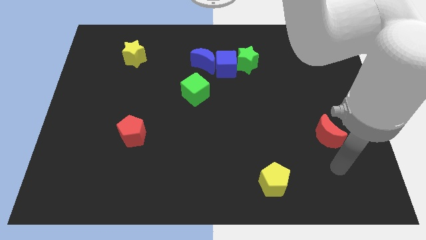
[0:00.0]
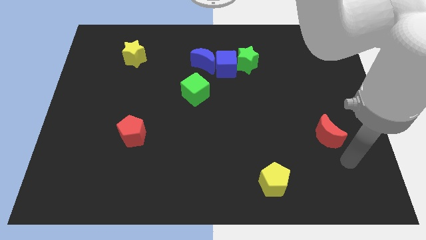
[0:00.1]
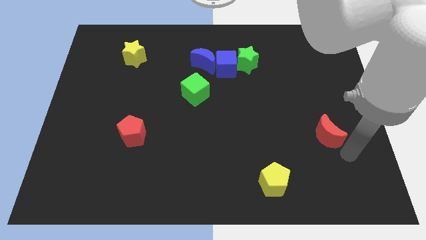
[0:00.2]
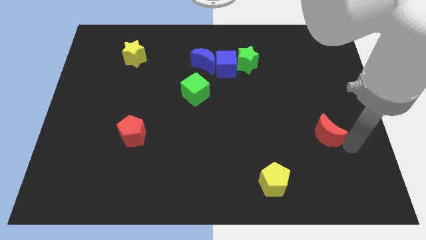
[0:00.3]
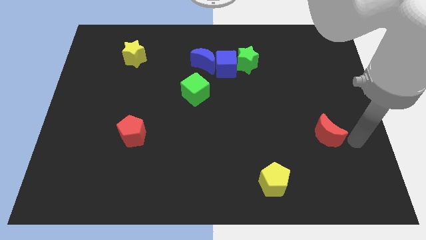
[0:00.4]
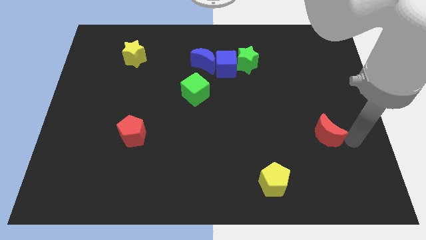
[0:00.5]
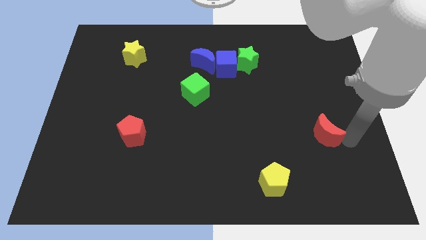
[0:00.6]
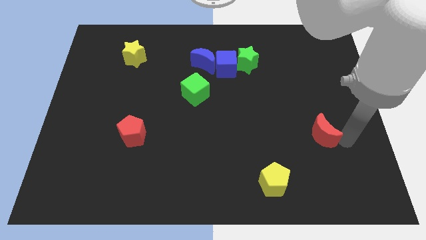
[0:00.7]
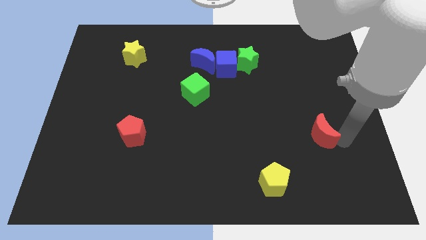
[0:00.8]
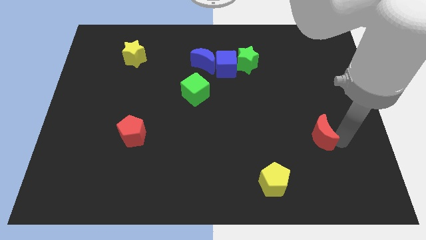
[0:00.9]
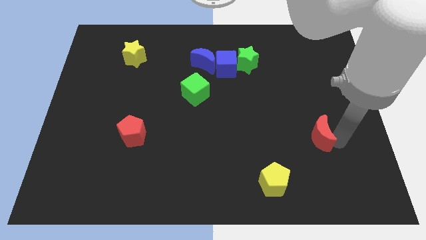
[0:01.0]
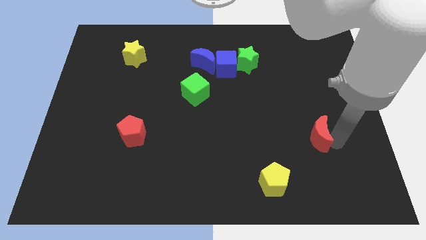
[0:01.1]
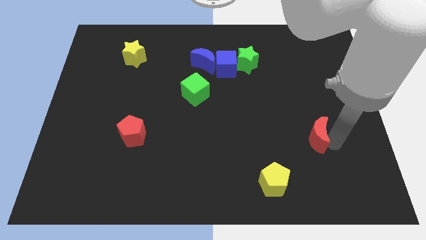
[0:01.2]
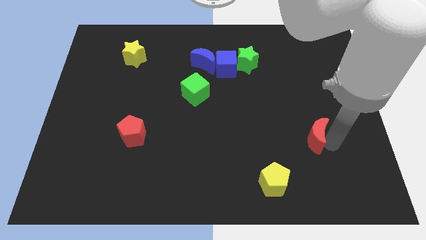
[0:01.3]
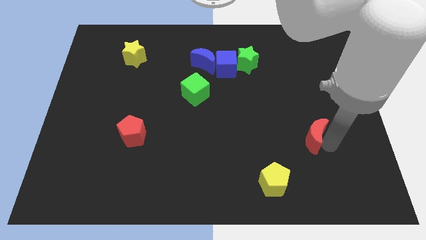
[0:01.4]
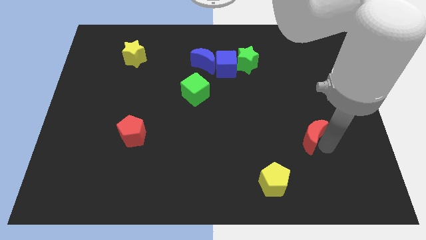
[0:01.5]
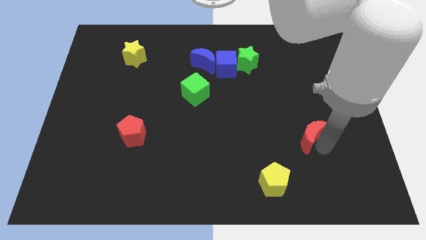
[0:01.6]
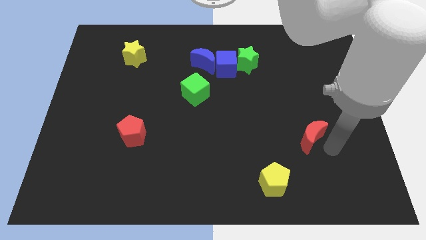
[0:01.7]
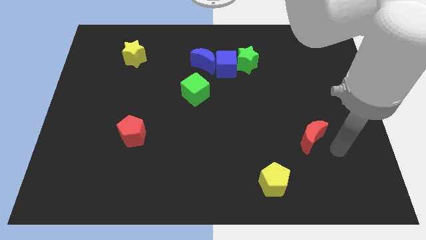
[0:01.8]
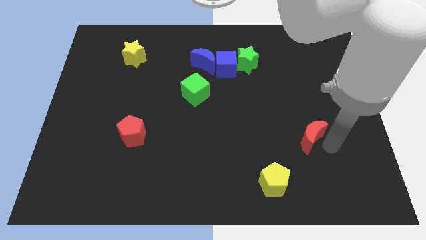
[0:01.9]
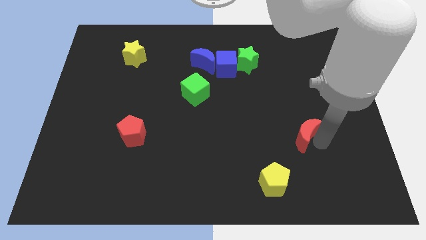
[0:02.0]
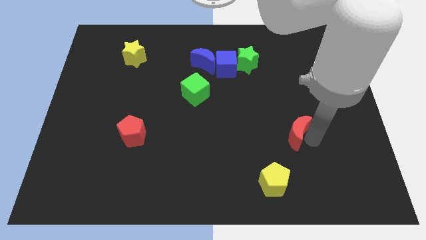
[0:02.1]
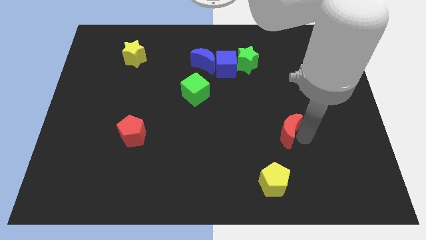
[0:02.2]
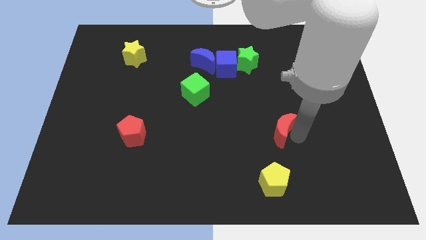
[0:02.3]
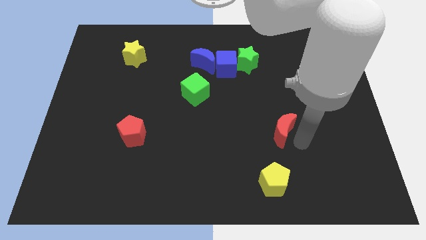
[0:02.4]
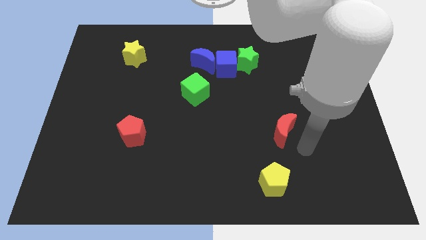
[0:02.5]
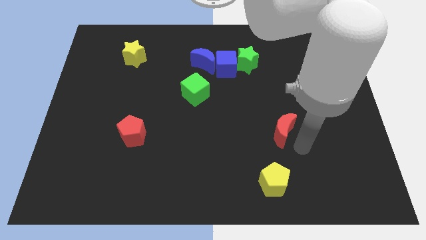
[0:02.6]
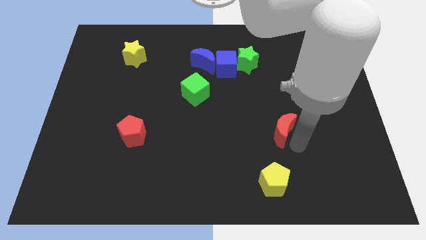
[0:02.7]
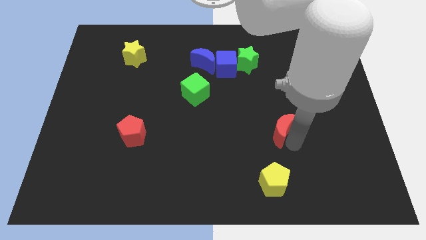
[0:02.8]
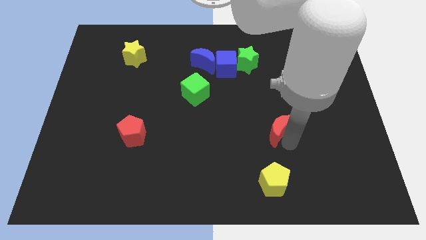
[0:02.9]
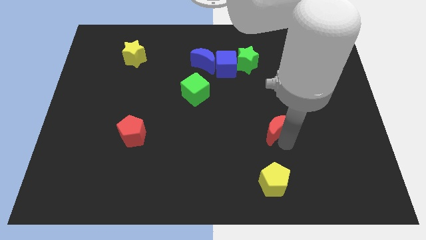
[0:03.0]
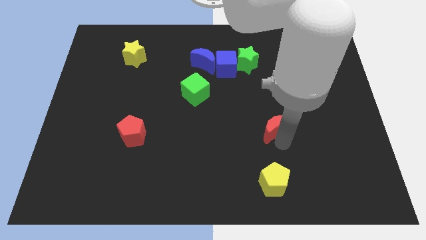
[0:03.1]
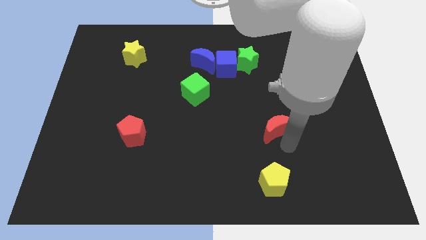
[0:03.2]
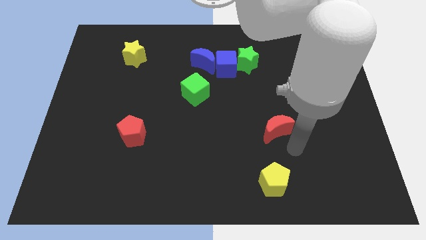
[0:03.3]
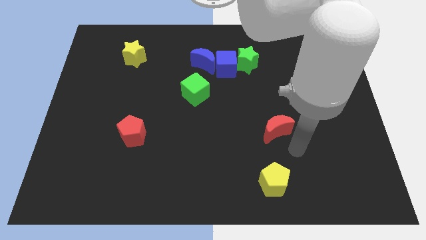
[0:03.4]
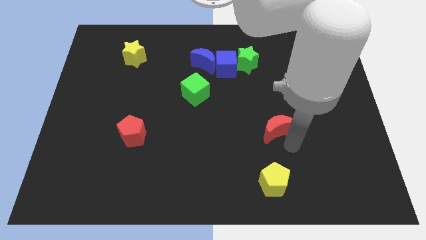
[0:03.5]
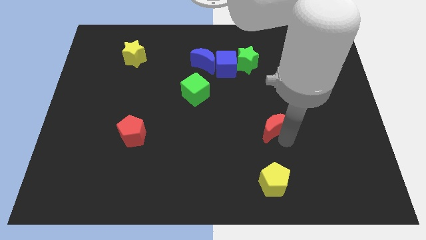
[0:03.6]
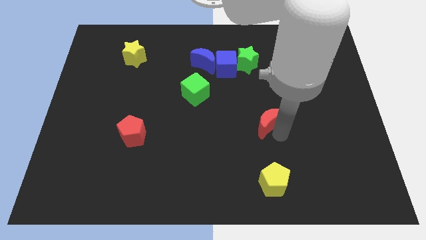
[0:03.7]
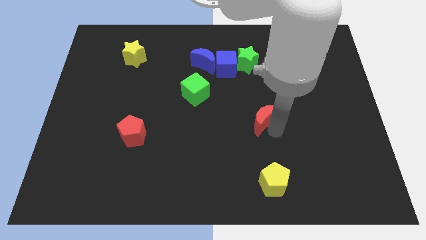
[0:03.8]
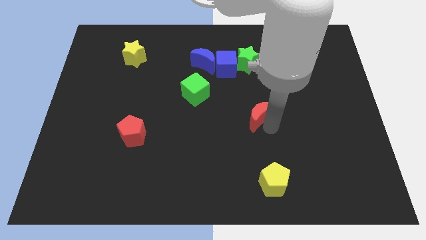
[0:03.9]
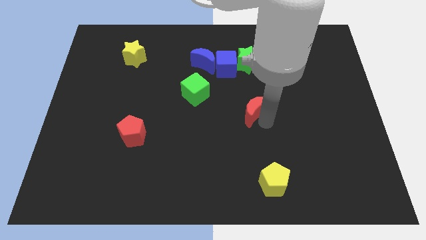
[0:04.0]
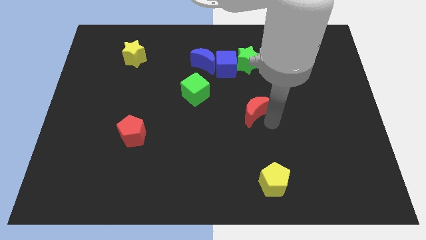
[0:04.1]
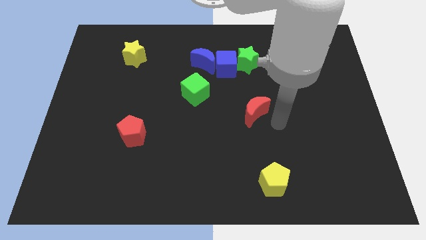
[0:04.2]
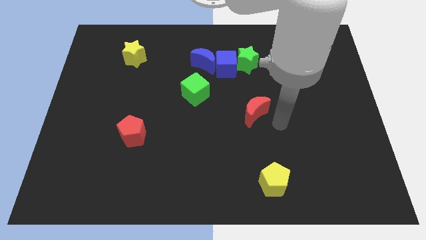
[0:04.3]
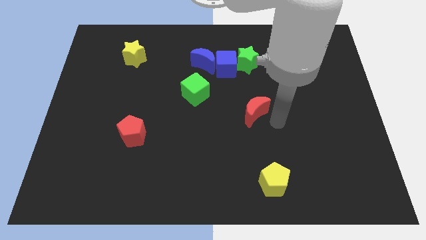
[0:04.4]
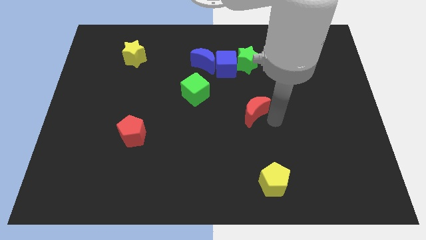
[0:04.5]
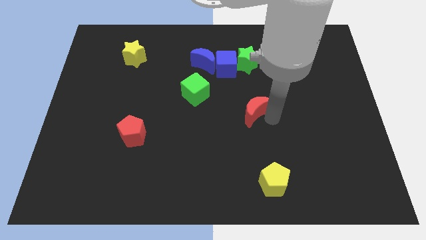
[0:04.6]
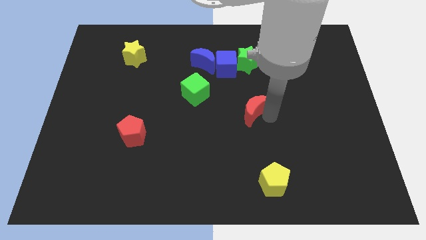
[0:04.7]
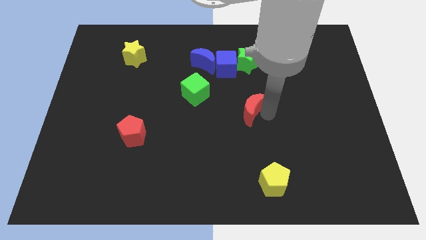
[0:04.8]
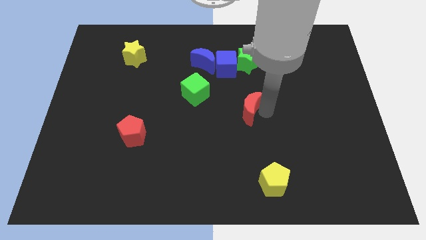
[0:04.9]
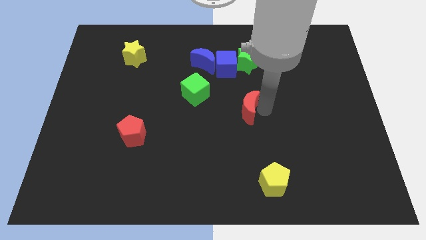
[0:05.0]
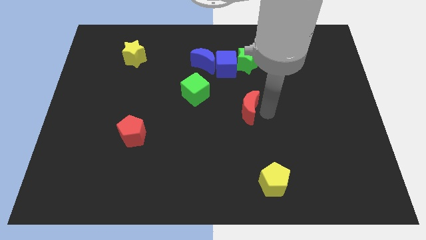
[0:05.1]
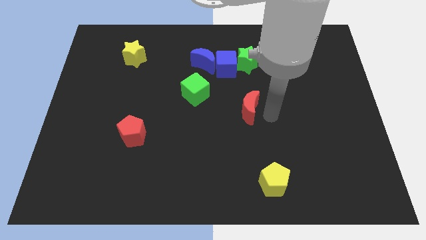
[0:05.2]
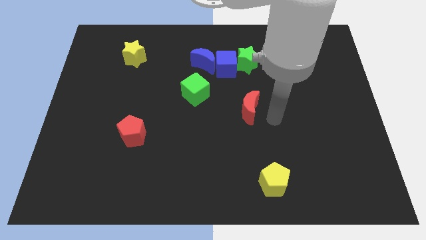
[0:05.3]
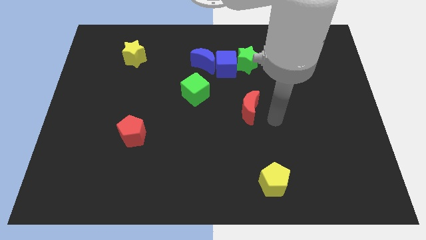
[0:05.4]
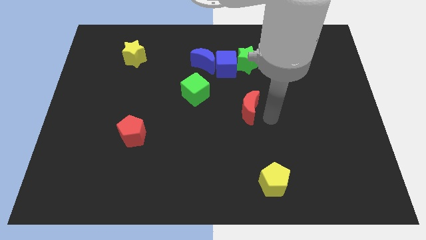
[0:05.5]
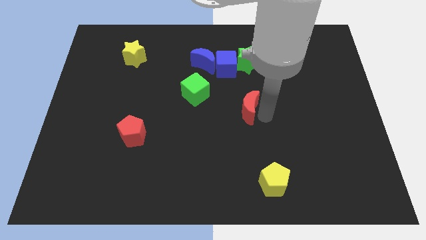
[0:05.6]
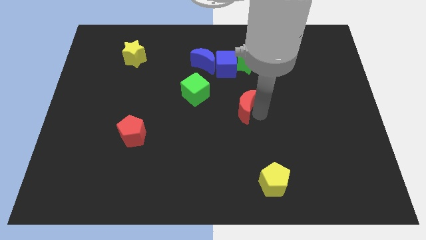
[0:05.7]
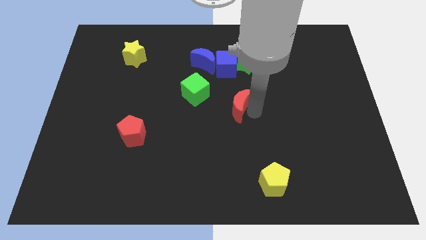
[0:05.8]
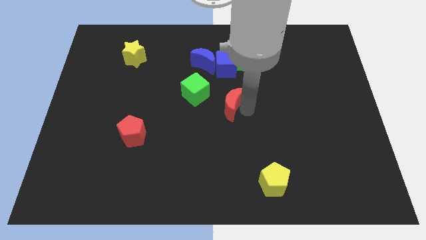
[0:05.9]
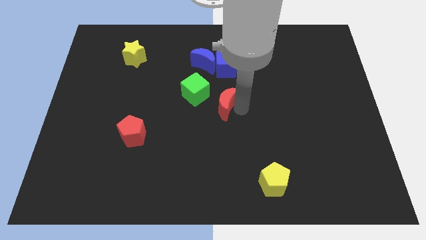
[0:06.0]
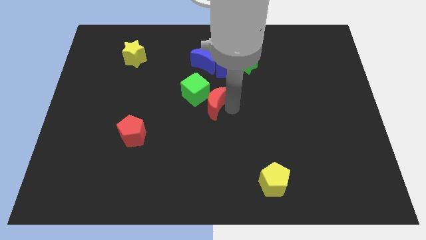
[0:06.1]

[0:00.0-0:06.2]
push the red moon close to the green cube

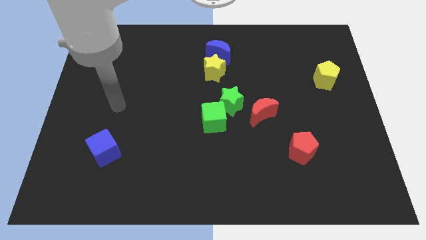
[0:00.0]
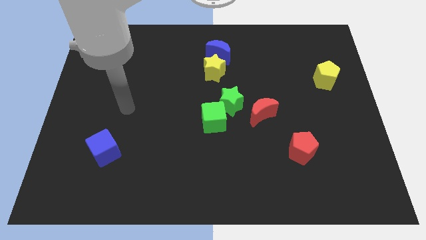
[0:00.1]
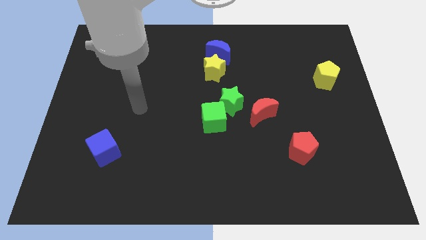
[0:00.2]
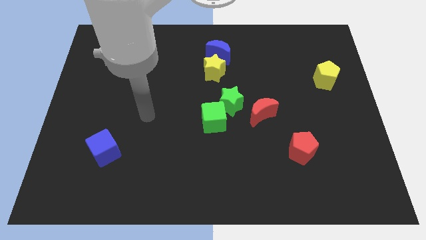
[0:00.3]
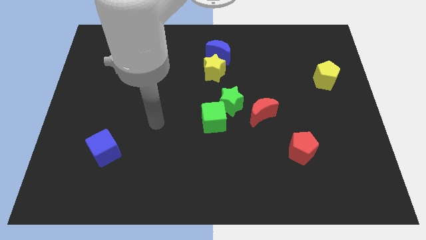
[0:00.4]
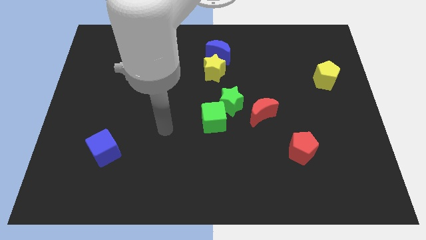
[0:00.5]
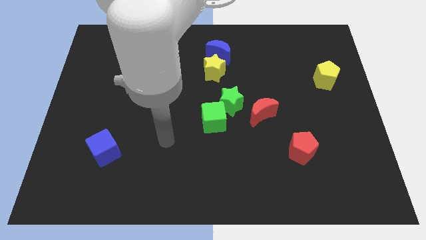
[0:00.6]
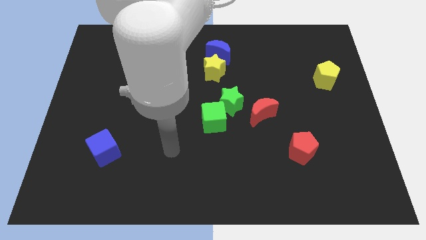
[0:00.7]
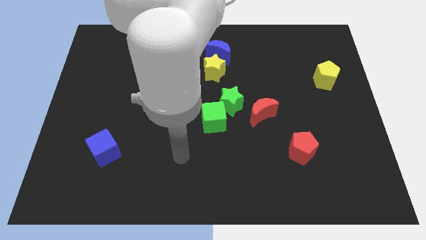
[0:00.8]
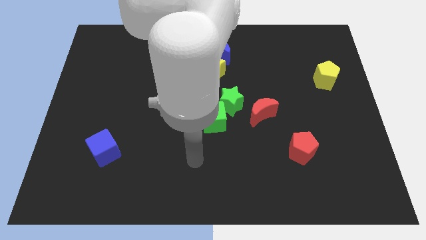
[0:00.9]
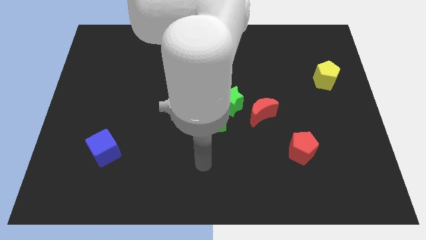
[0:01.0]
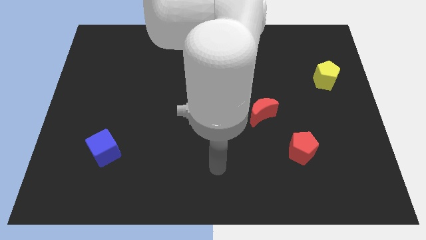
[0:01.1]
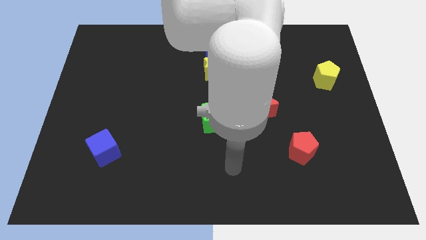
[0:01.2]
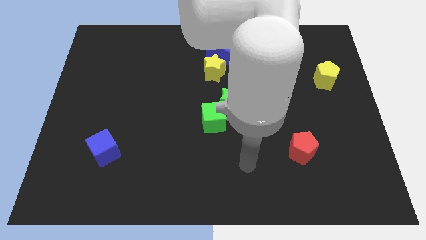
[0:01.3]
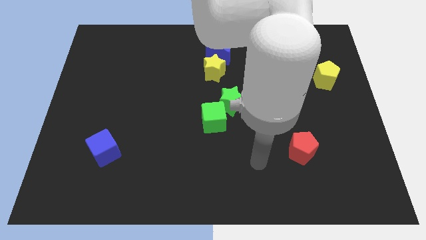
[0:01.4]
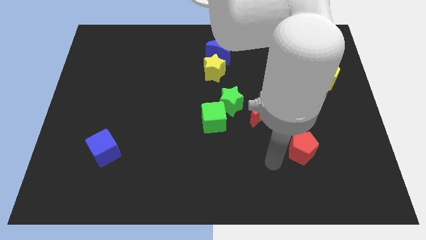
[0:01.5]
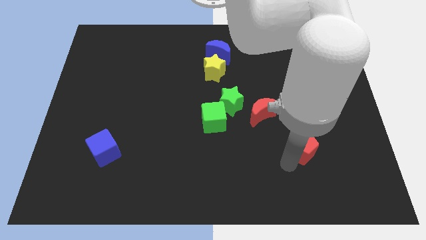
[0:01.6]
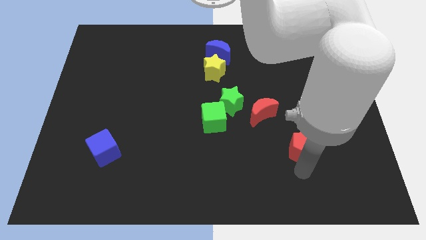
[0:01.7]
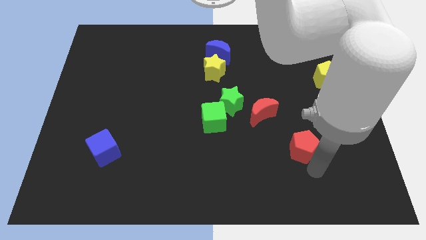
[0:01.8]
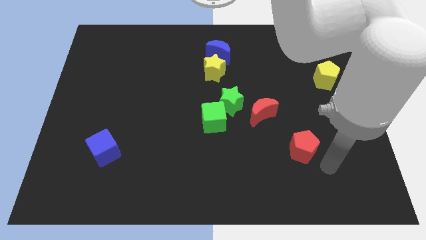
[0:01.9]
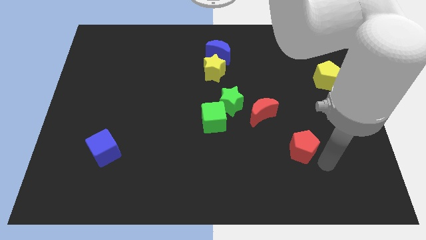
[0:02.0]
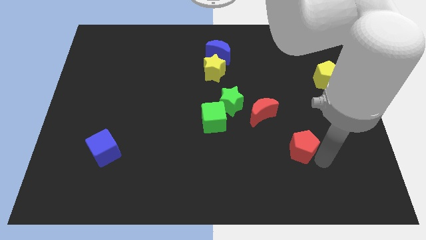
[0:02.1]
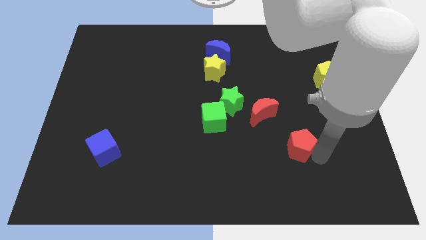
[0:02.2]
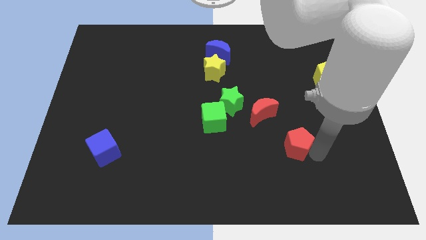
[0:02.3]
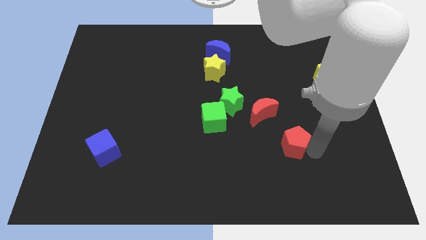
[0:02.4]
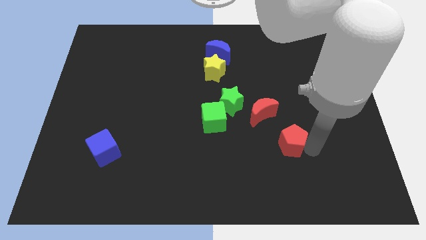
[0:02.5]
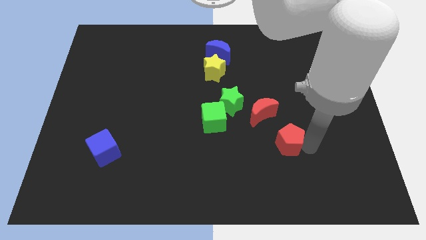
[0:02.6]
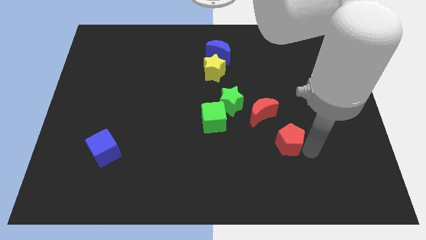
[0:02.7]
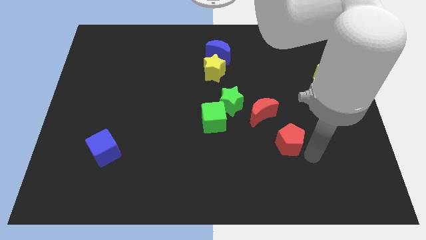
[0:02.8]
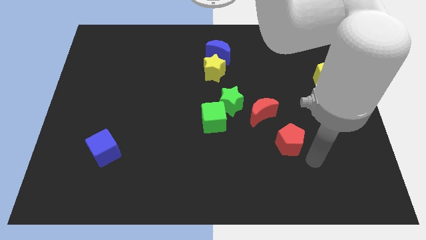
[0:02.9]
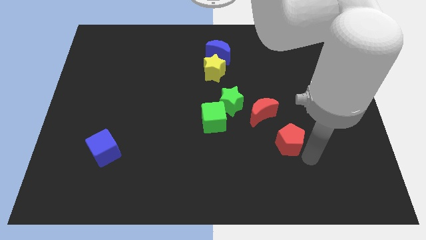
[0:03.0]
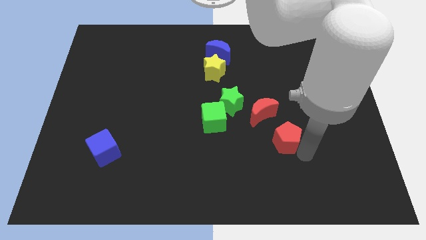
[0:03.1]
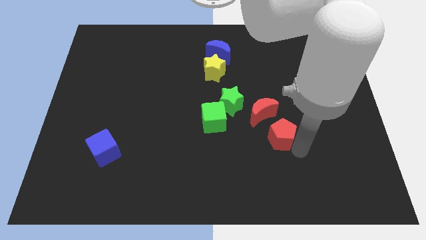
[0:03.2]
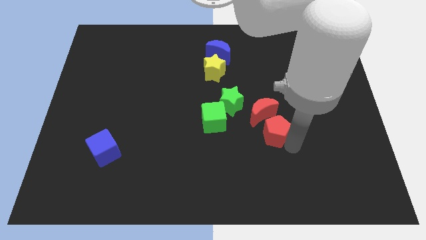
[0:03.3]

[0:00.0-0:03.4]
slide the red pentagon close to the red moon
